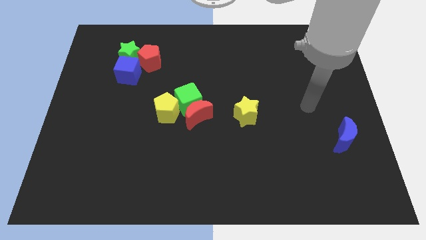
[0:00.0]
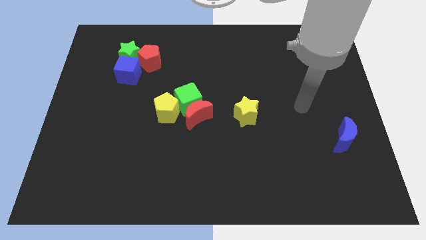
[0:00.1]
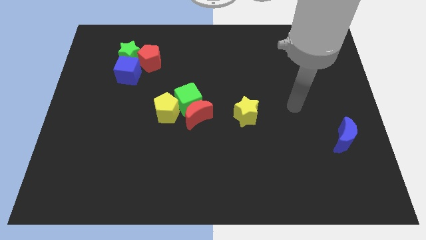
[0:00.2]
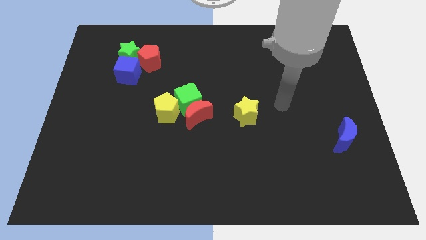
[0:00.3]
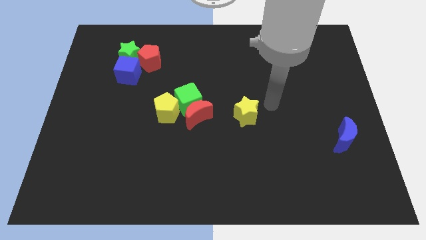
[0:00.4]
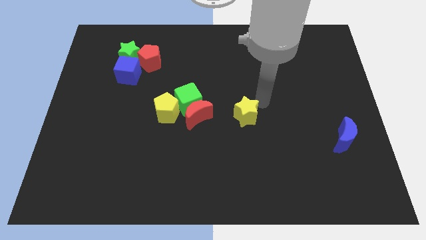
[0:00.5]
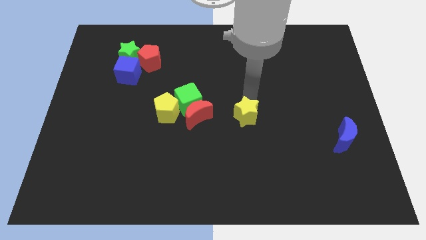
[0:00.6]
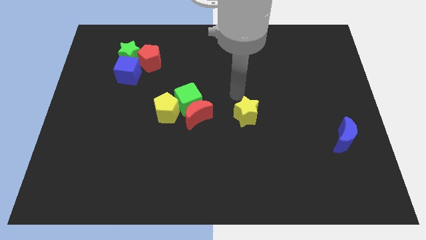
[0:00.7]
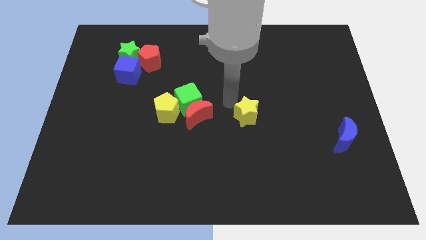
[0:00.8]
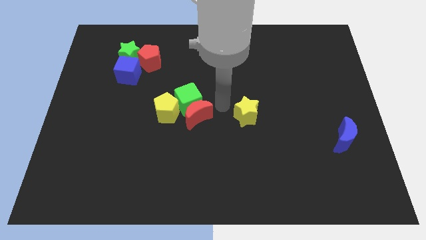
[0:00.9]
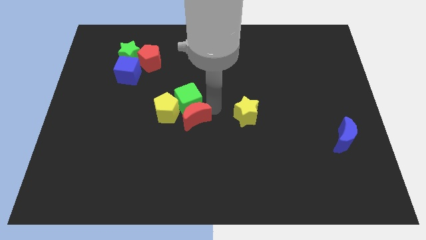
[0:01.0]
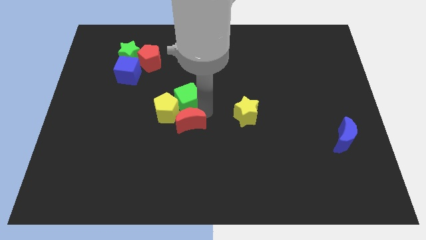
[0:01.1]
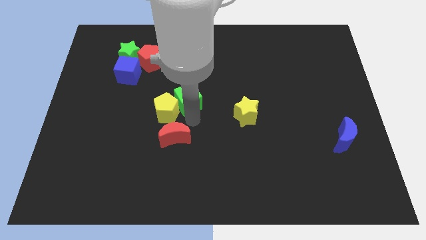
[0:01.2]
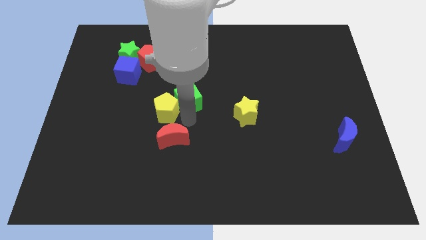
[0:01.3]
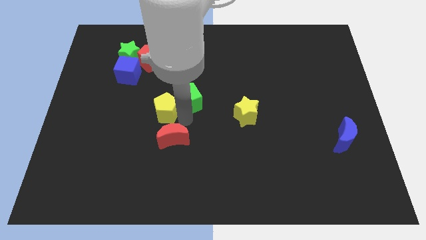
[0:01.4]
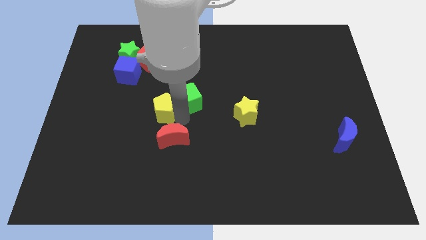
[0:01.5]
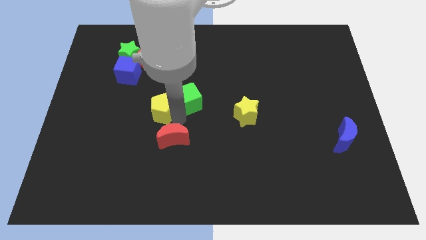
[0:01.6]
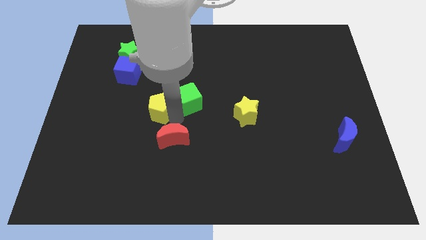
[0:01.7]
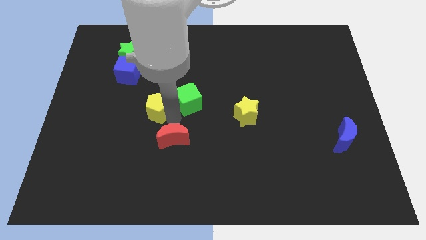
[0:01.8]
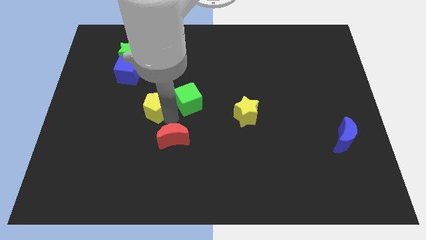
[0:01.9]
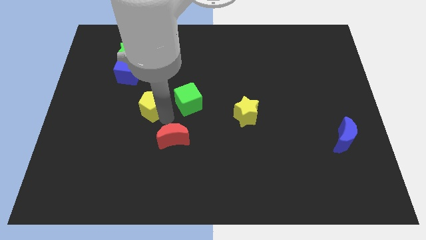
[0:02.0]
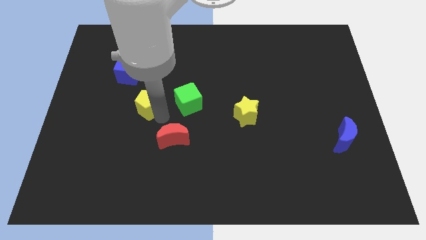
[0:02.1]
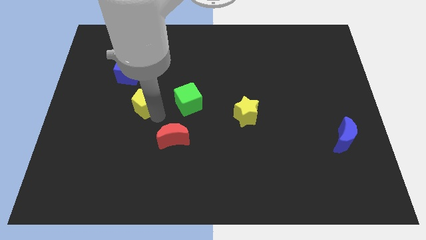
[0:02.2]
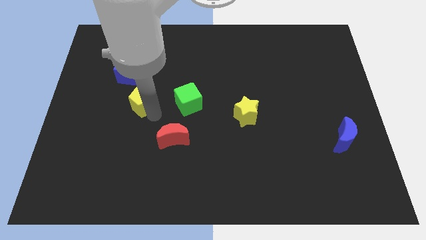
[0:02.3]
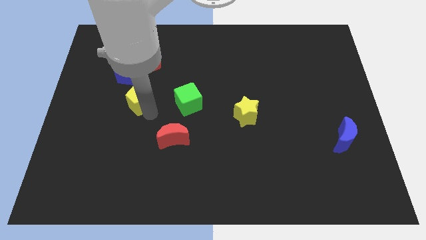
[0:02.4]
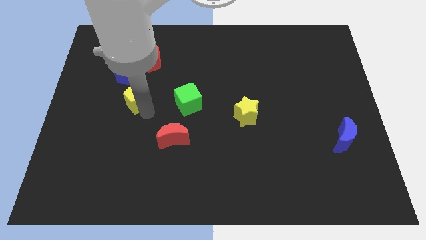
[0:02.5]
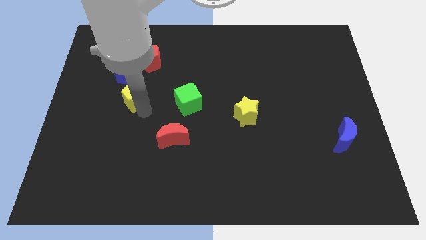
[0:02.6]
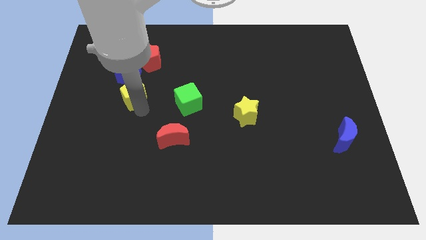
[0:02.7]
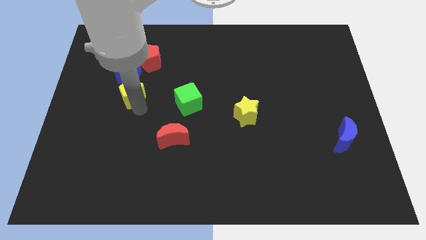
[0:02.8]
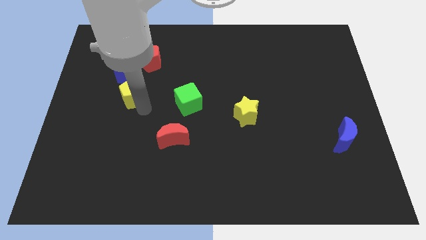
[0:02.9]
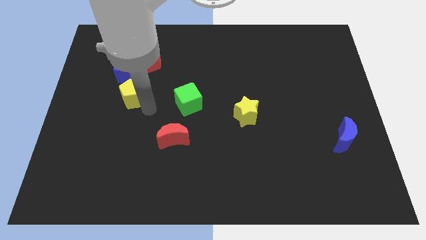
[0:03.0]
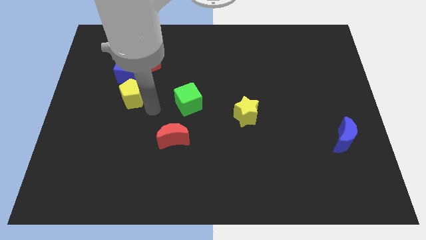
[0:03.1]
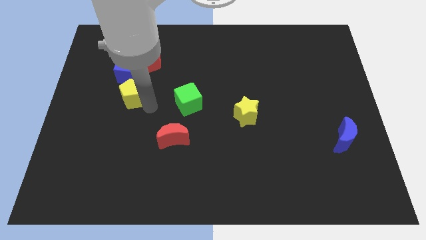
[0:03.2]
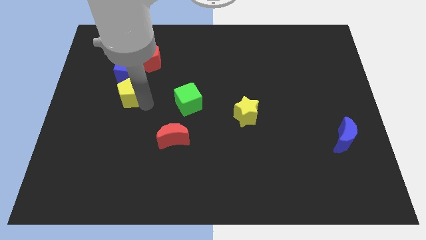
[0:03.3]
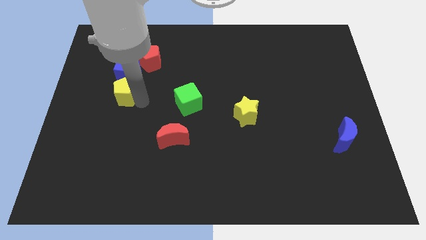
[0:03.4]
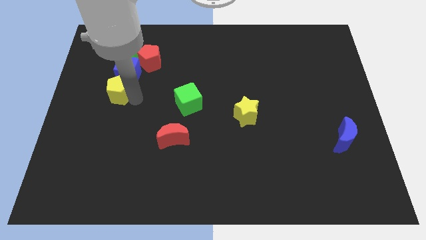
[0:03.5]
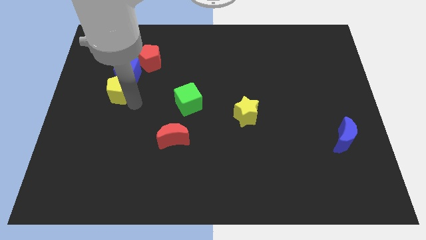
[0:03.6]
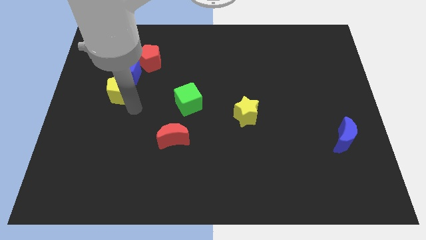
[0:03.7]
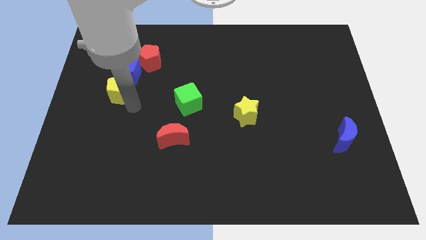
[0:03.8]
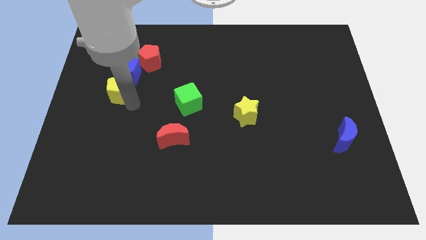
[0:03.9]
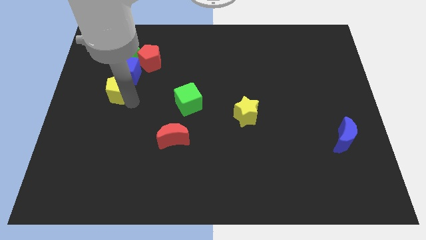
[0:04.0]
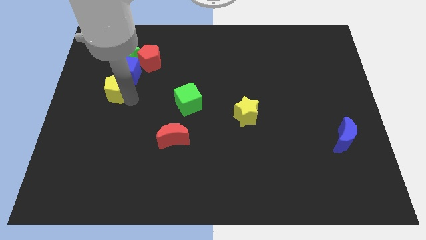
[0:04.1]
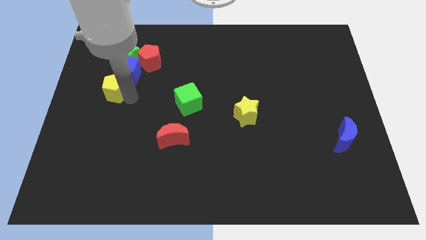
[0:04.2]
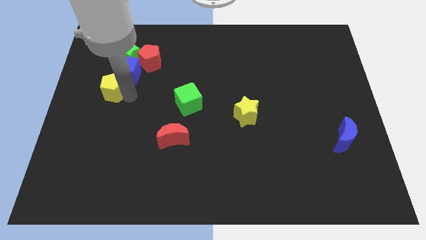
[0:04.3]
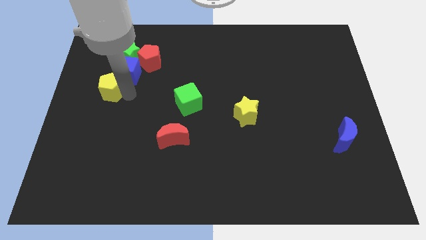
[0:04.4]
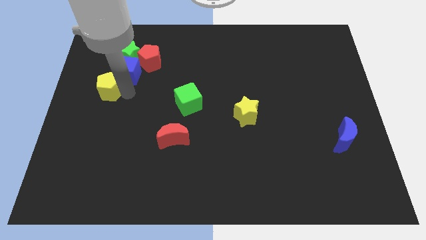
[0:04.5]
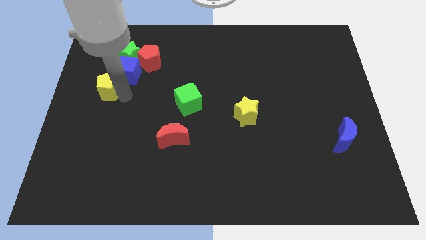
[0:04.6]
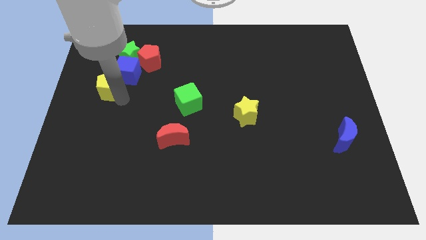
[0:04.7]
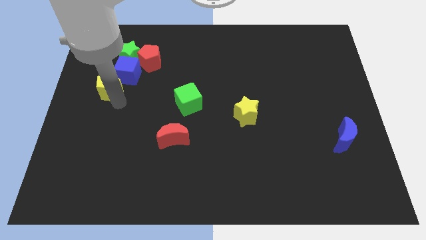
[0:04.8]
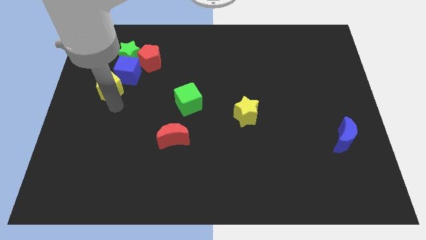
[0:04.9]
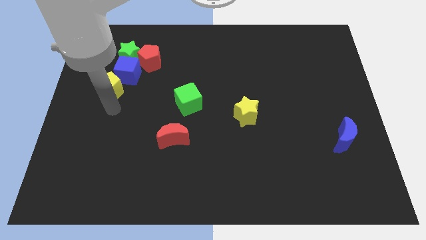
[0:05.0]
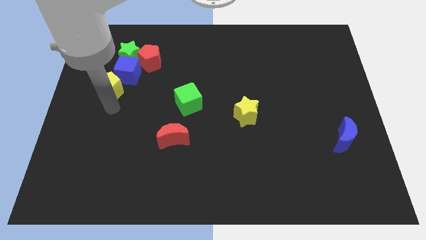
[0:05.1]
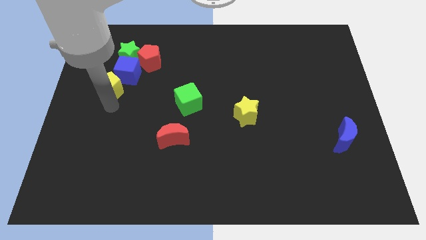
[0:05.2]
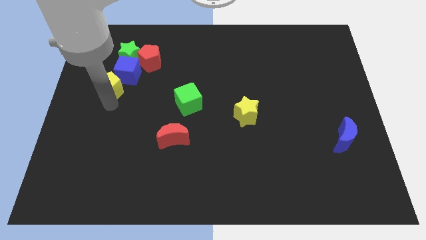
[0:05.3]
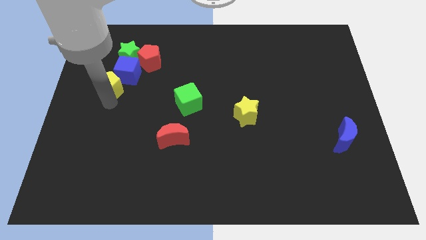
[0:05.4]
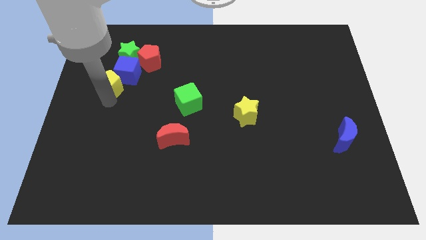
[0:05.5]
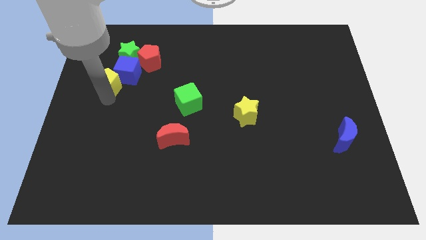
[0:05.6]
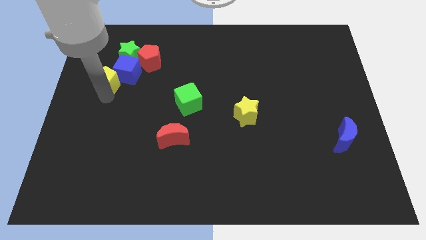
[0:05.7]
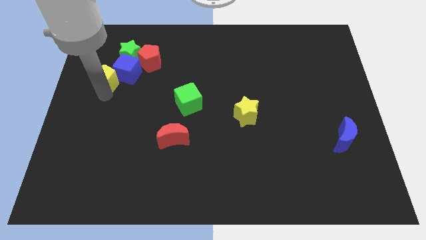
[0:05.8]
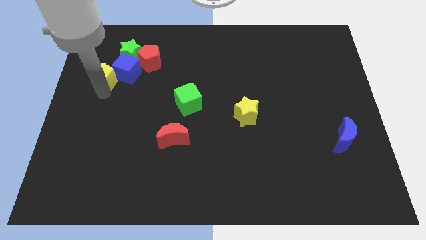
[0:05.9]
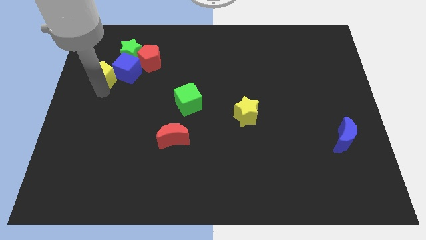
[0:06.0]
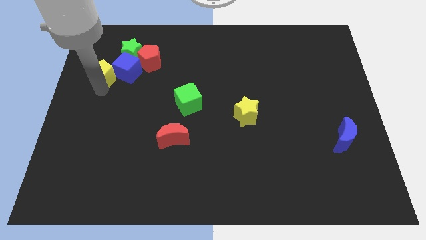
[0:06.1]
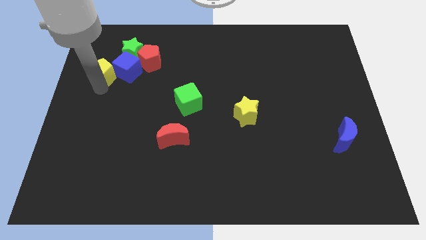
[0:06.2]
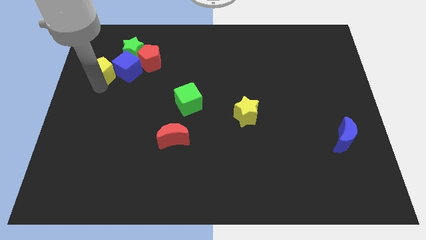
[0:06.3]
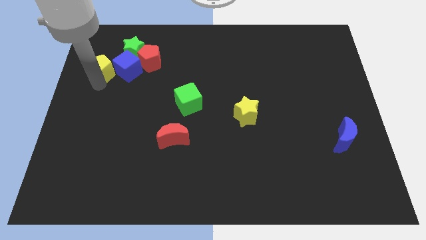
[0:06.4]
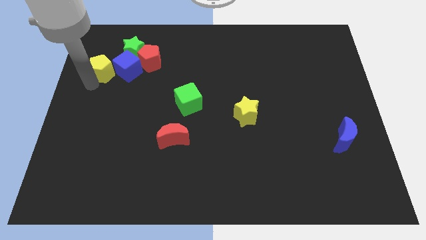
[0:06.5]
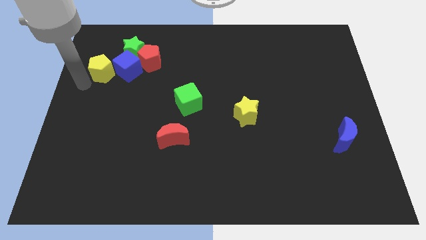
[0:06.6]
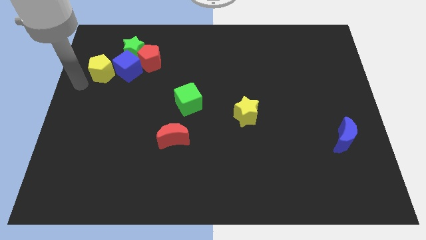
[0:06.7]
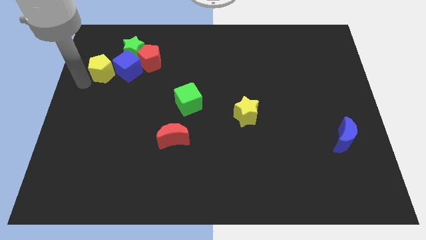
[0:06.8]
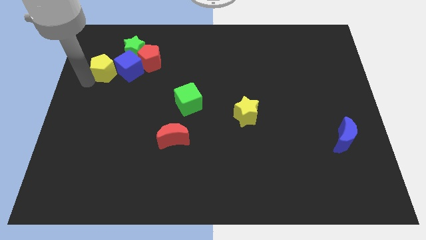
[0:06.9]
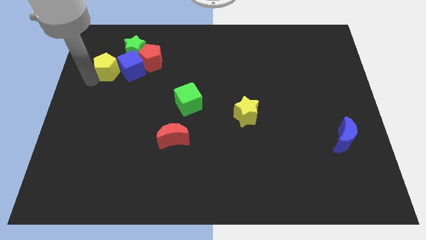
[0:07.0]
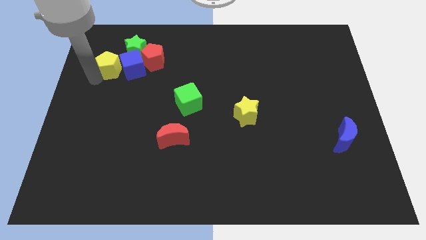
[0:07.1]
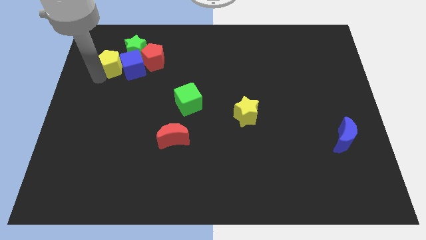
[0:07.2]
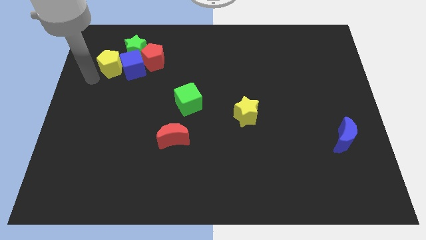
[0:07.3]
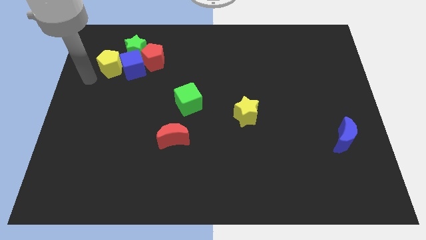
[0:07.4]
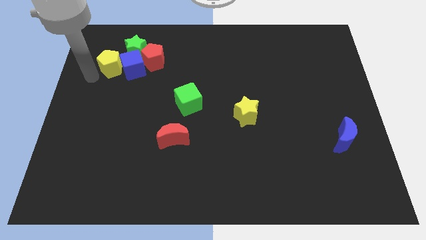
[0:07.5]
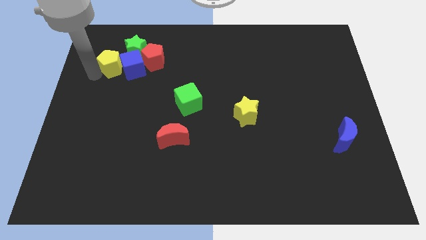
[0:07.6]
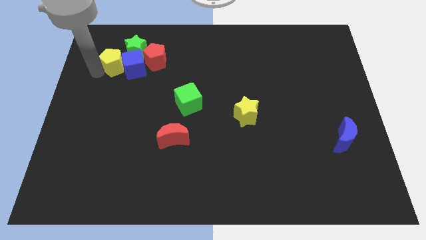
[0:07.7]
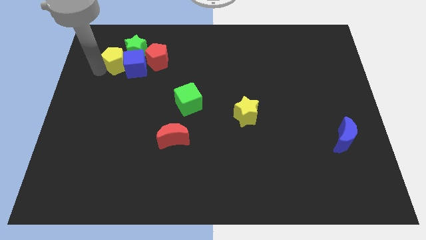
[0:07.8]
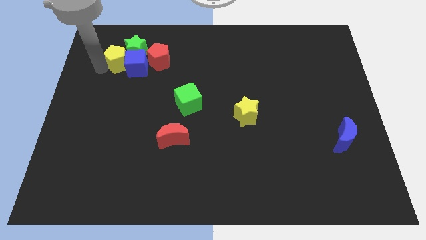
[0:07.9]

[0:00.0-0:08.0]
push the yellow pentagon next to the green star
